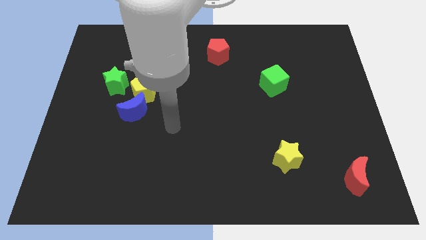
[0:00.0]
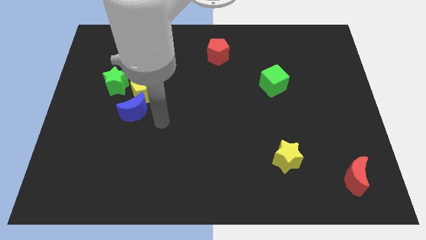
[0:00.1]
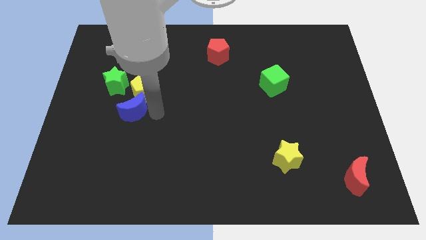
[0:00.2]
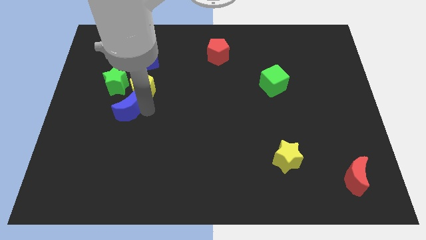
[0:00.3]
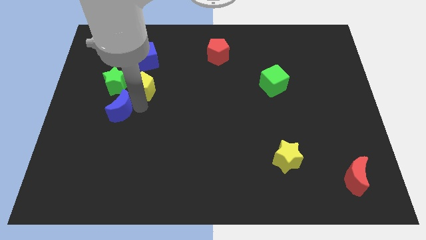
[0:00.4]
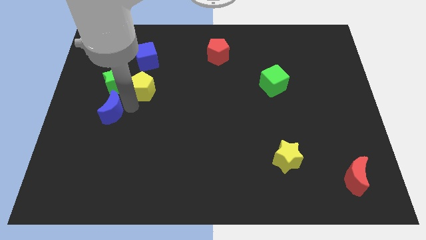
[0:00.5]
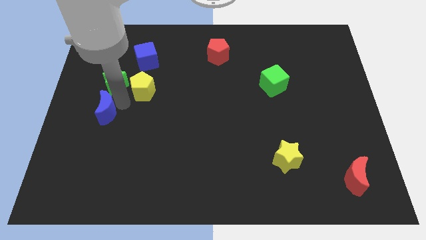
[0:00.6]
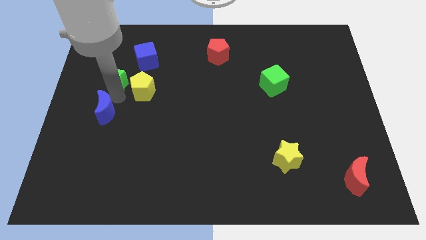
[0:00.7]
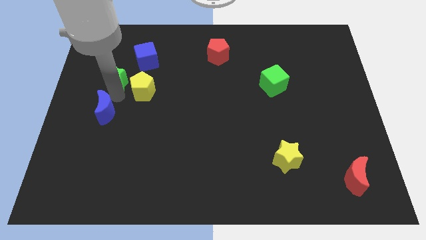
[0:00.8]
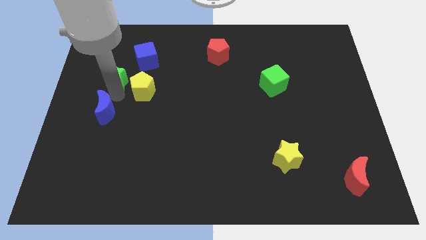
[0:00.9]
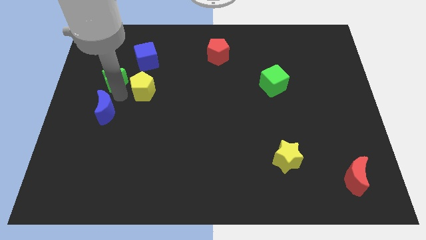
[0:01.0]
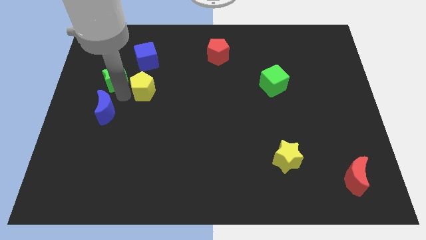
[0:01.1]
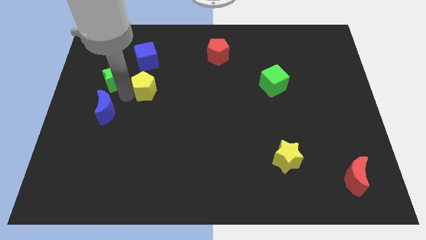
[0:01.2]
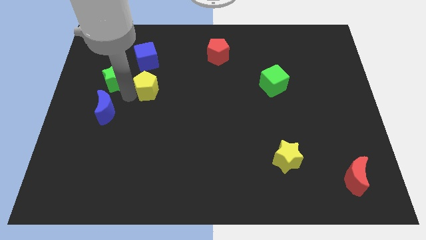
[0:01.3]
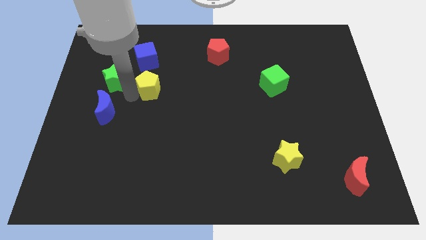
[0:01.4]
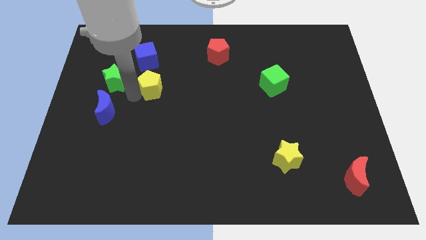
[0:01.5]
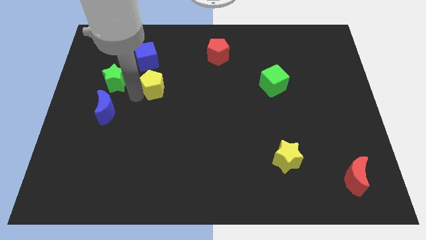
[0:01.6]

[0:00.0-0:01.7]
separate the yellow pentagon from the blue moon and green star

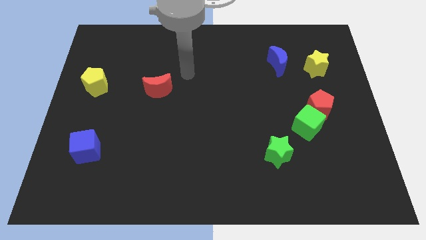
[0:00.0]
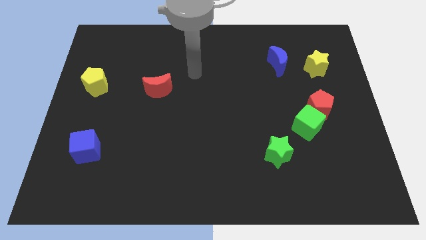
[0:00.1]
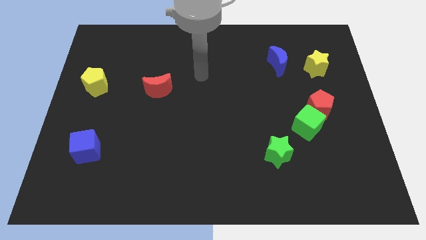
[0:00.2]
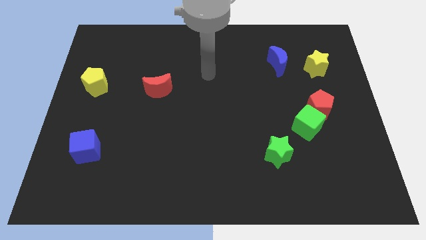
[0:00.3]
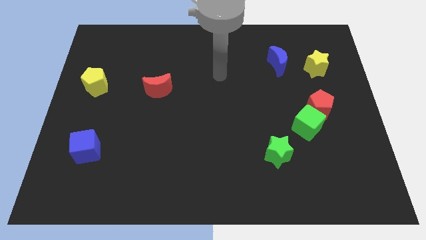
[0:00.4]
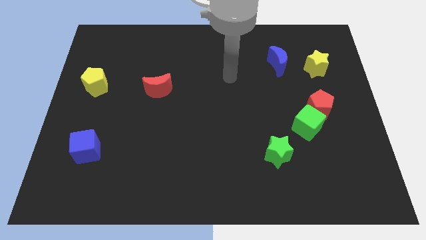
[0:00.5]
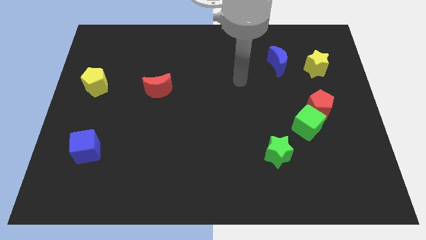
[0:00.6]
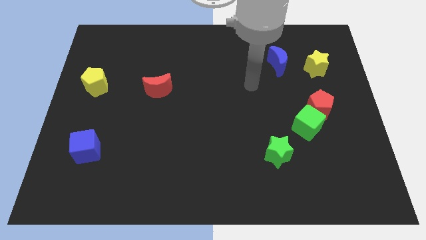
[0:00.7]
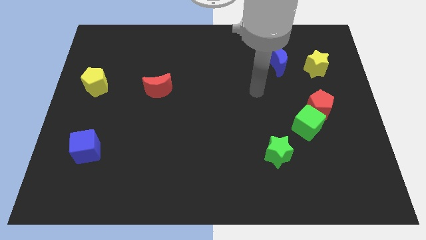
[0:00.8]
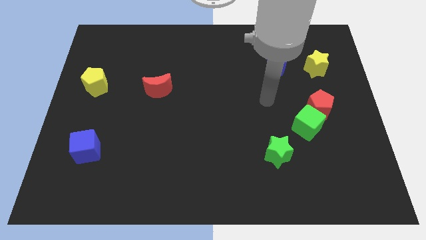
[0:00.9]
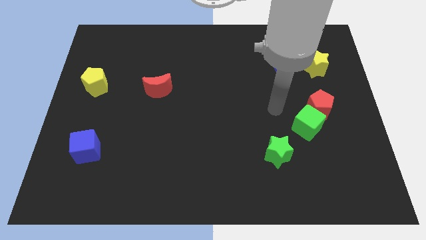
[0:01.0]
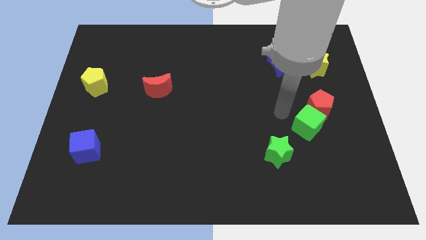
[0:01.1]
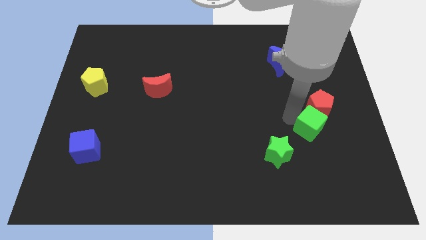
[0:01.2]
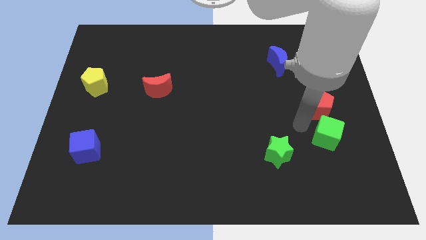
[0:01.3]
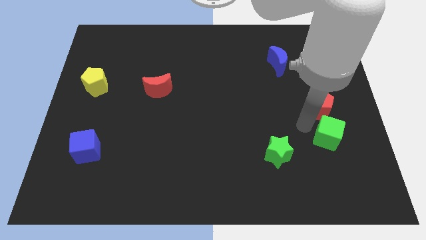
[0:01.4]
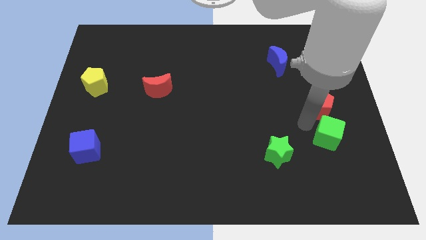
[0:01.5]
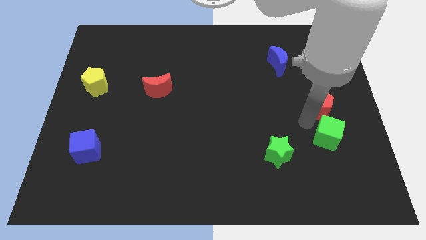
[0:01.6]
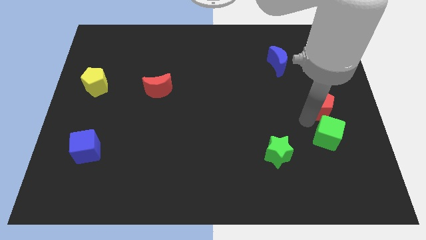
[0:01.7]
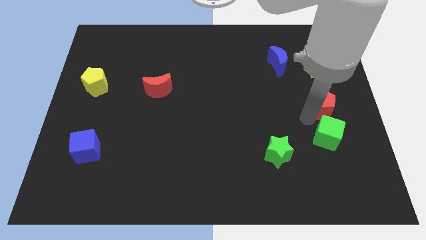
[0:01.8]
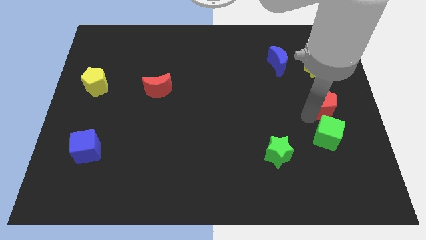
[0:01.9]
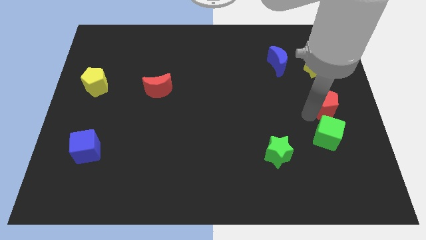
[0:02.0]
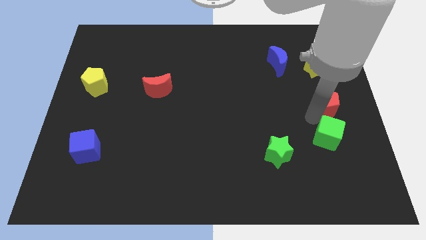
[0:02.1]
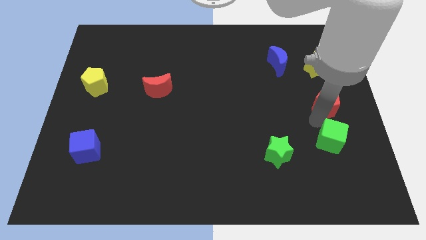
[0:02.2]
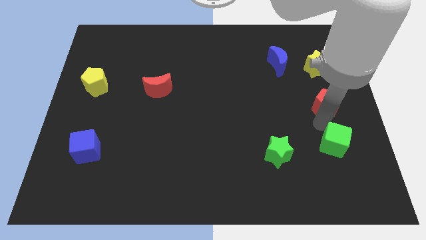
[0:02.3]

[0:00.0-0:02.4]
pull the red pentagon apart from the green cube

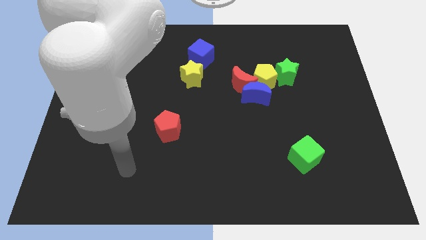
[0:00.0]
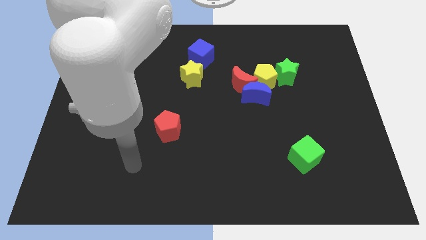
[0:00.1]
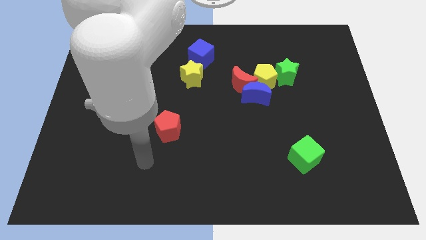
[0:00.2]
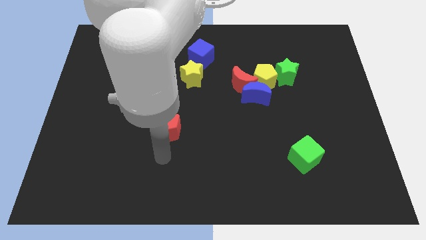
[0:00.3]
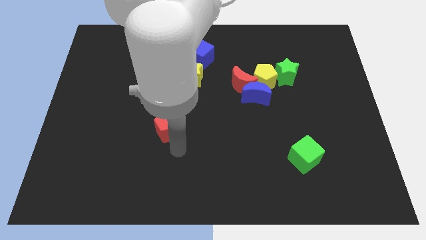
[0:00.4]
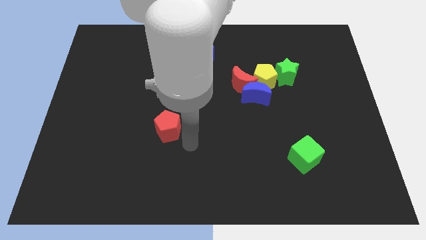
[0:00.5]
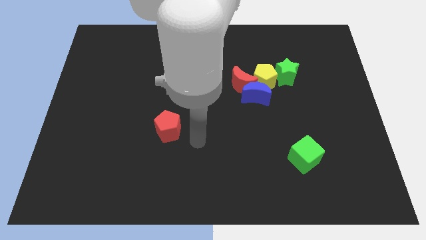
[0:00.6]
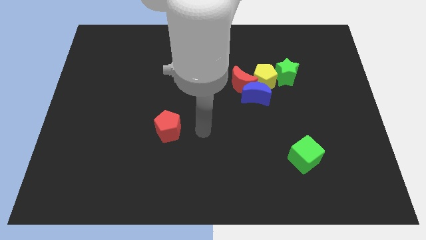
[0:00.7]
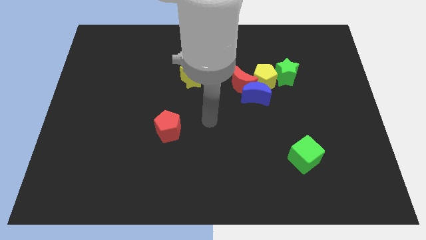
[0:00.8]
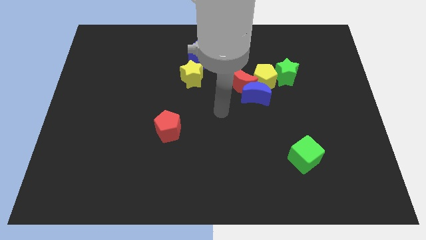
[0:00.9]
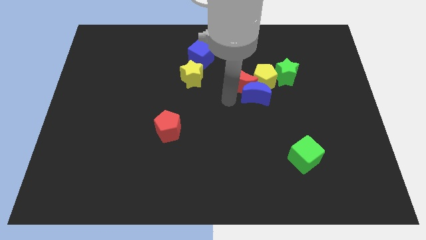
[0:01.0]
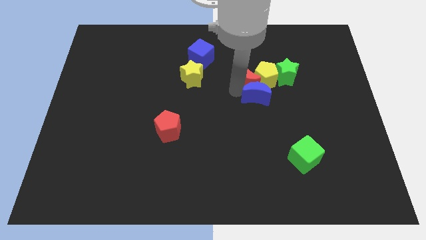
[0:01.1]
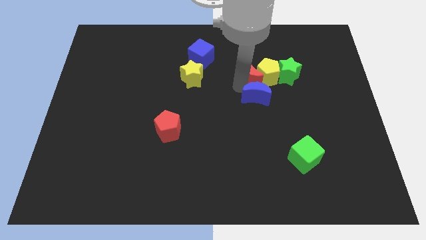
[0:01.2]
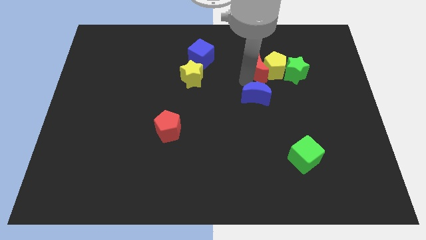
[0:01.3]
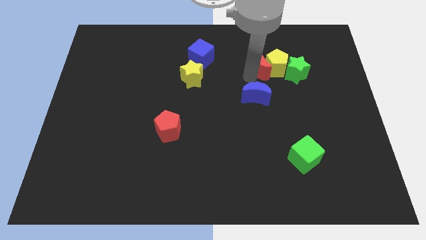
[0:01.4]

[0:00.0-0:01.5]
pull the blue moon apart from the red moon and yellow pentagon

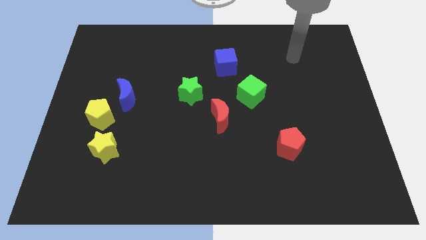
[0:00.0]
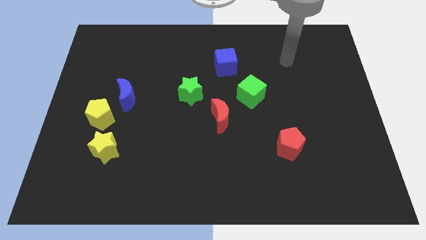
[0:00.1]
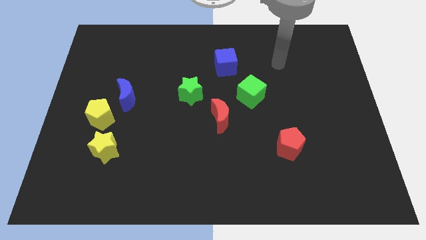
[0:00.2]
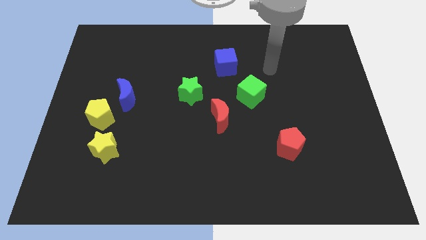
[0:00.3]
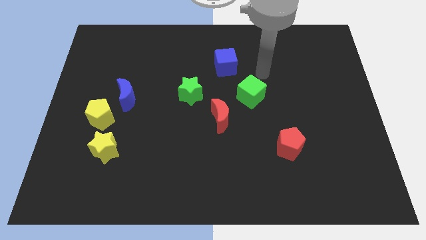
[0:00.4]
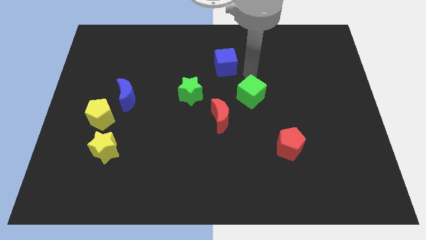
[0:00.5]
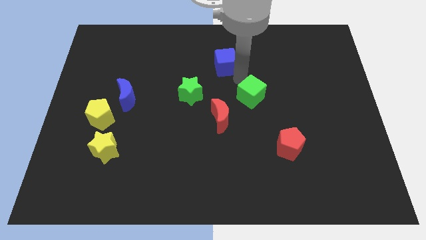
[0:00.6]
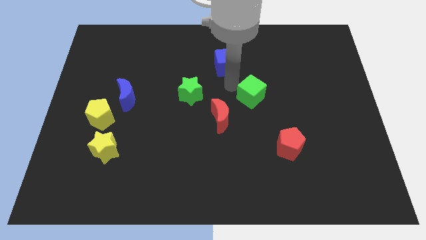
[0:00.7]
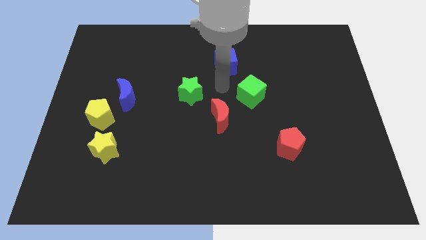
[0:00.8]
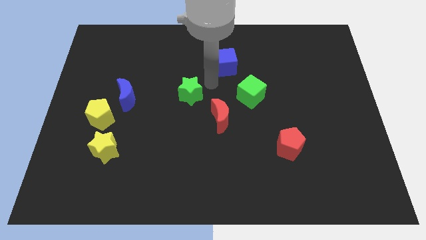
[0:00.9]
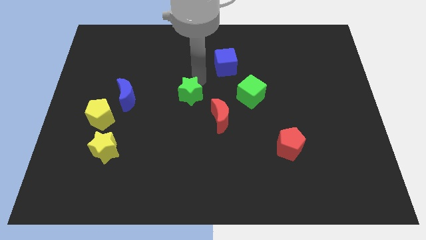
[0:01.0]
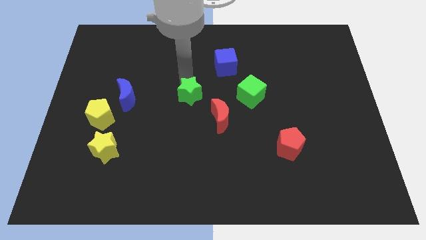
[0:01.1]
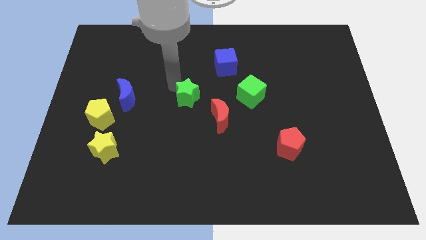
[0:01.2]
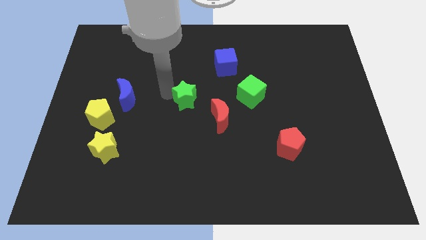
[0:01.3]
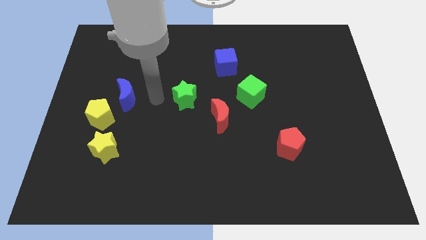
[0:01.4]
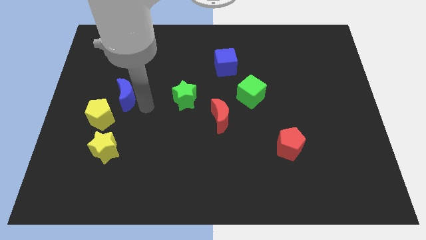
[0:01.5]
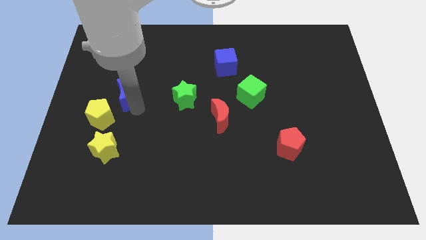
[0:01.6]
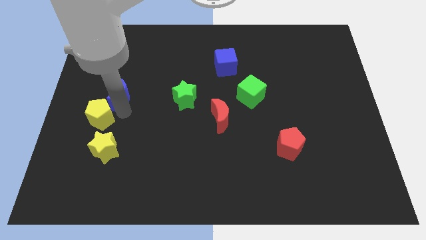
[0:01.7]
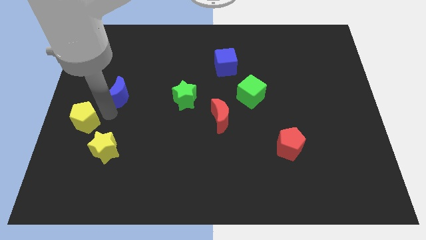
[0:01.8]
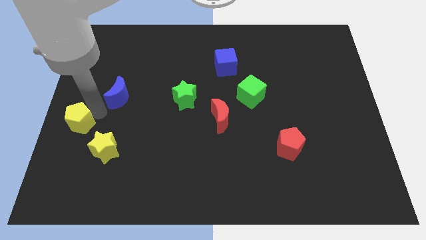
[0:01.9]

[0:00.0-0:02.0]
pull the blue moon apart from the yellow pentagon

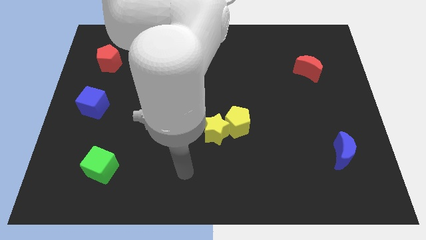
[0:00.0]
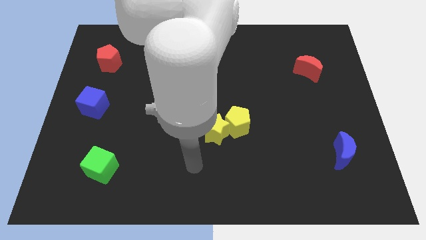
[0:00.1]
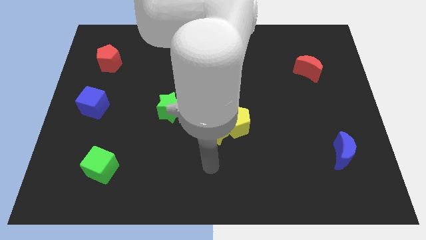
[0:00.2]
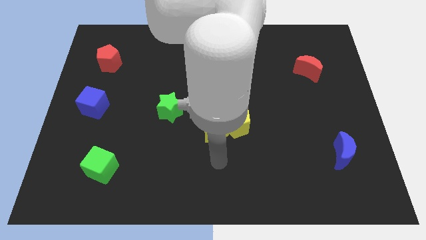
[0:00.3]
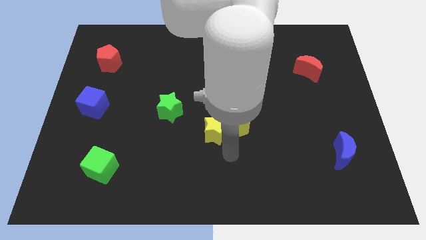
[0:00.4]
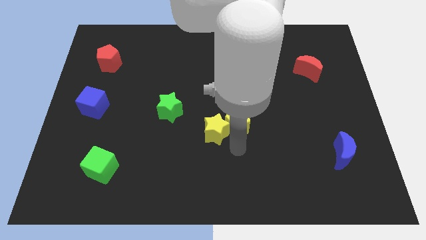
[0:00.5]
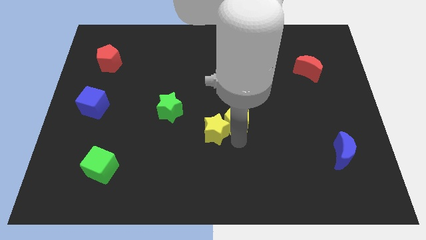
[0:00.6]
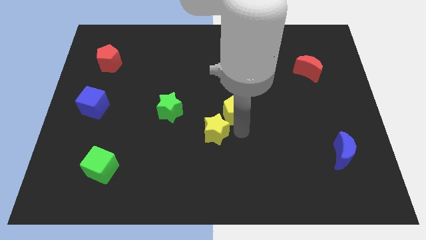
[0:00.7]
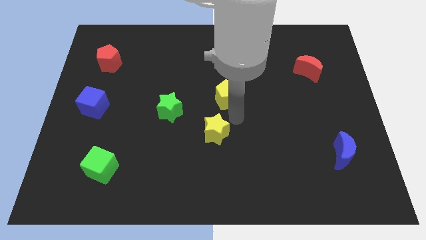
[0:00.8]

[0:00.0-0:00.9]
move the yellow star away from the yellow pentagon

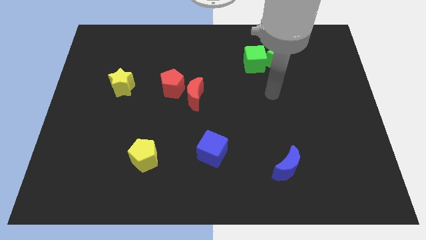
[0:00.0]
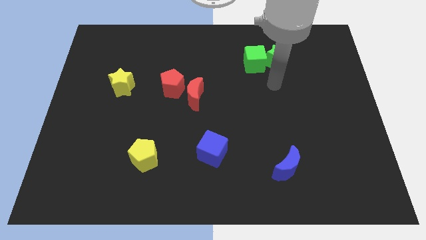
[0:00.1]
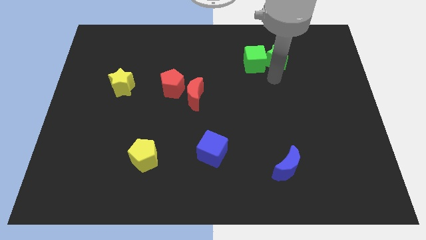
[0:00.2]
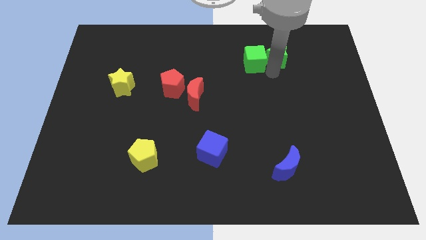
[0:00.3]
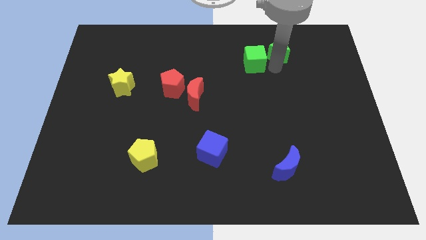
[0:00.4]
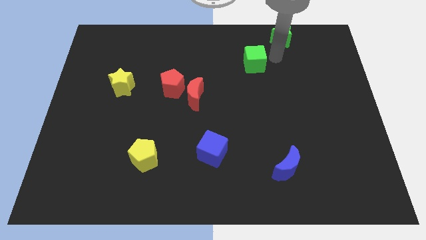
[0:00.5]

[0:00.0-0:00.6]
move the green cube away from the green star

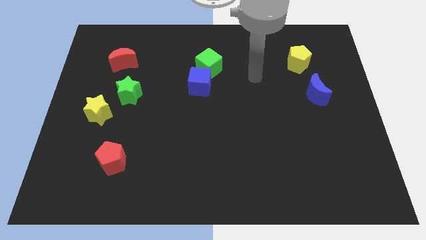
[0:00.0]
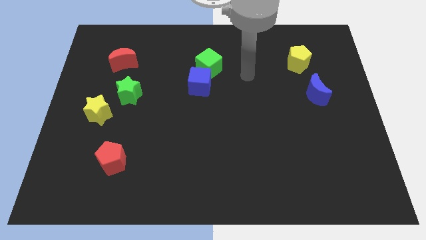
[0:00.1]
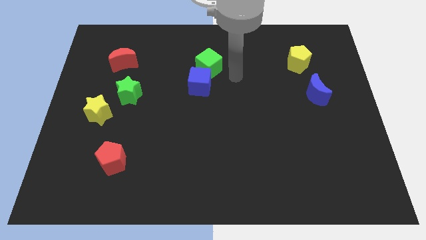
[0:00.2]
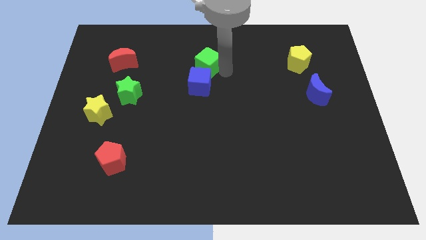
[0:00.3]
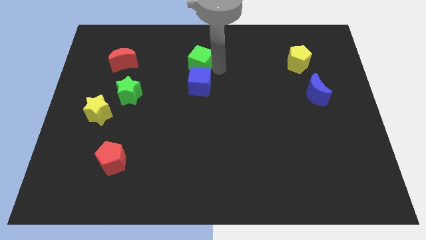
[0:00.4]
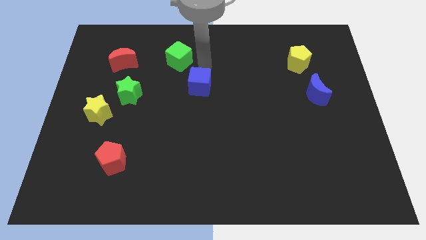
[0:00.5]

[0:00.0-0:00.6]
move the blue cube away from the green cube
